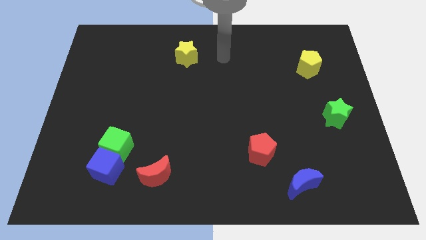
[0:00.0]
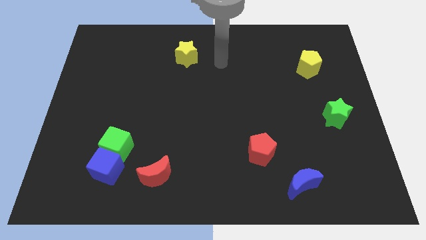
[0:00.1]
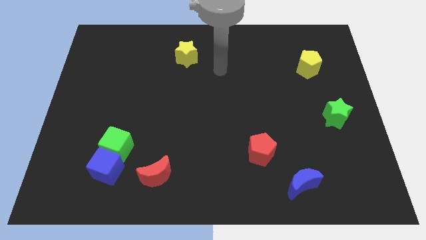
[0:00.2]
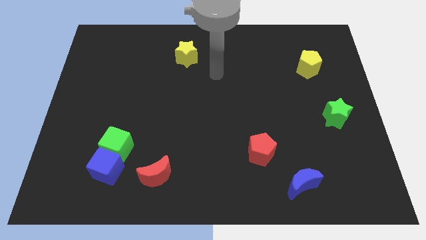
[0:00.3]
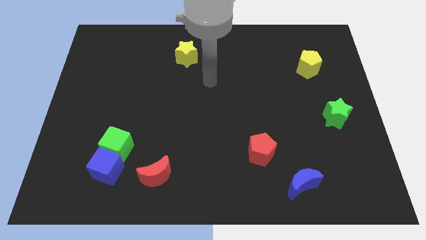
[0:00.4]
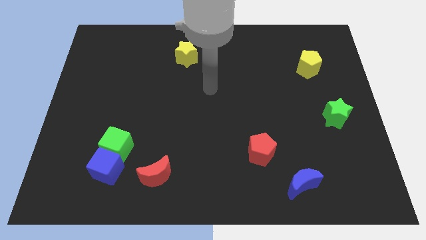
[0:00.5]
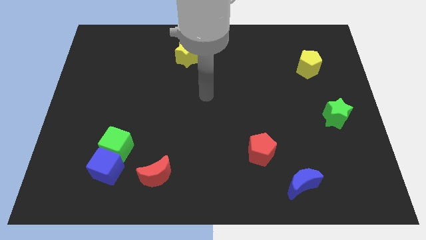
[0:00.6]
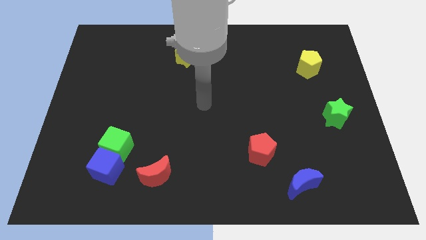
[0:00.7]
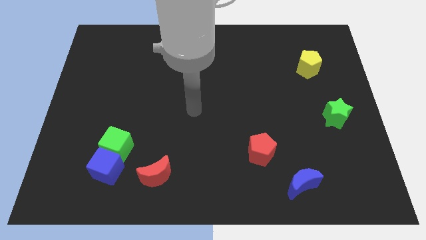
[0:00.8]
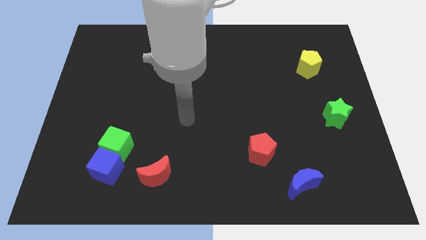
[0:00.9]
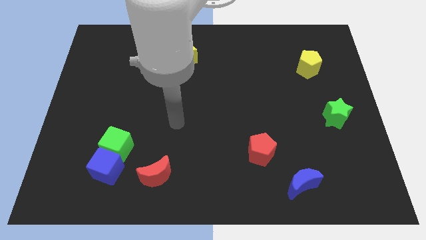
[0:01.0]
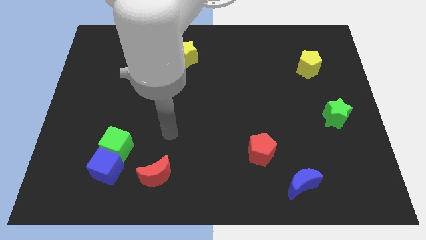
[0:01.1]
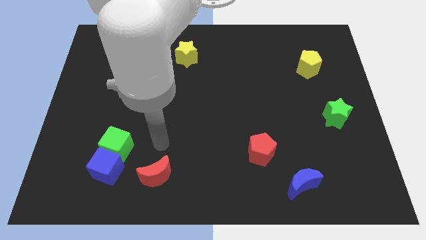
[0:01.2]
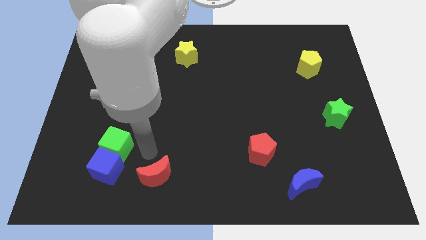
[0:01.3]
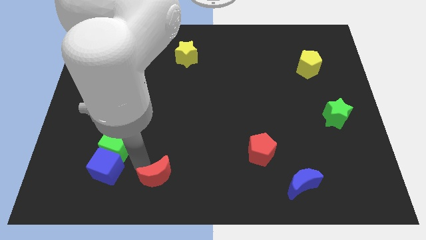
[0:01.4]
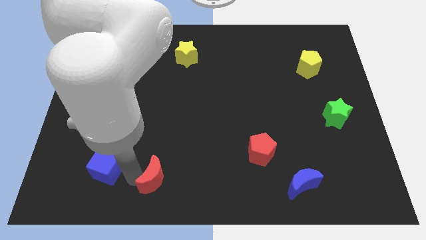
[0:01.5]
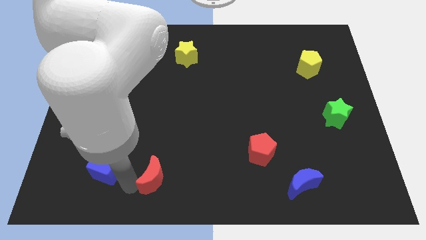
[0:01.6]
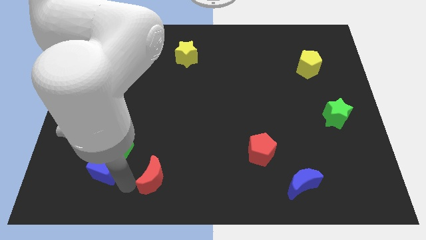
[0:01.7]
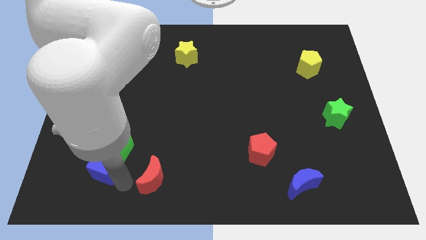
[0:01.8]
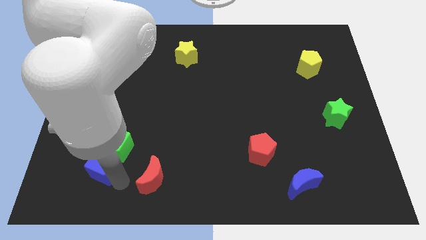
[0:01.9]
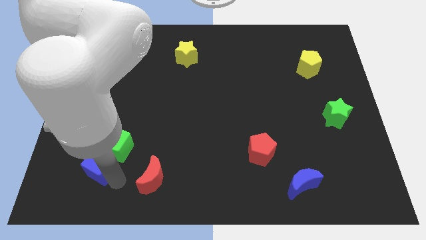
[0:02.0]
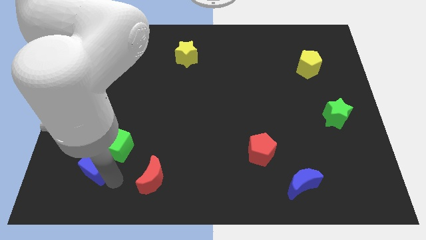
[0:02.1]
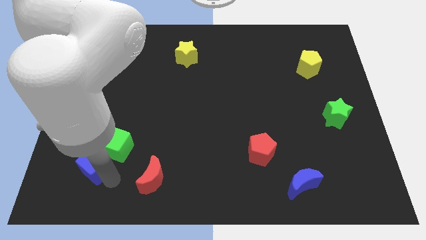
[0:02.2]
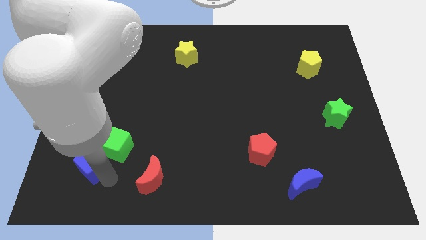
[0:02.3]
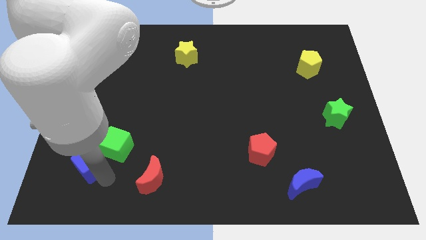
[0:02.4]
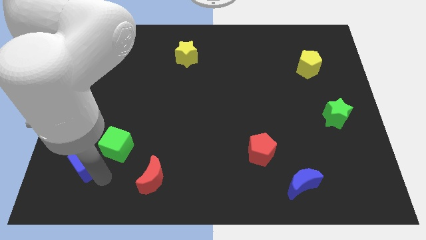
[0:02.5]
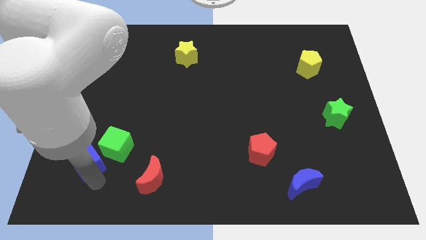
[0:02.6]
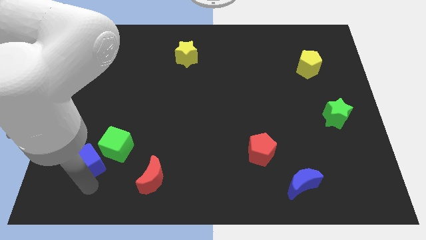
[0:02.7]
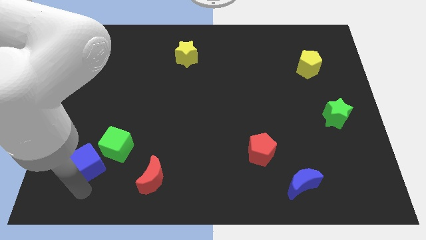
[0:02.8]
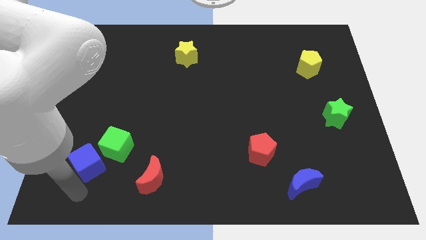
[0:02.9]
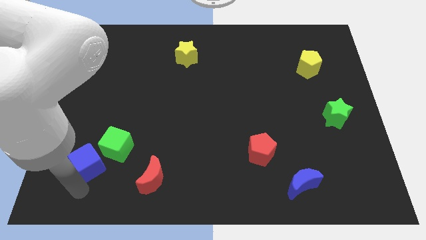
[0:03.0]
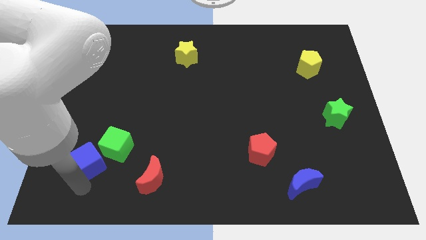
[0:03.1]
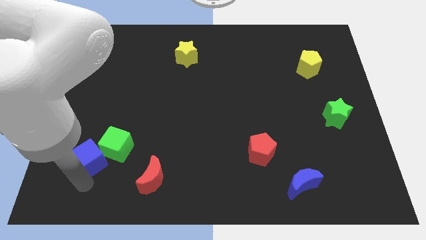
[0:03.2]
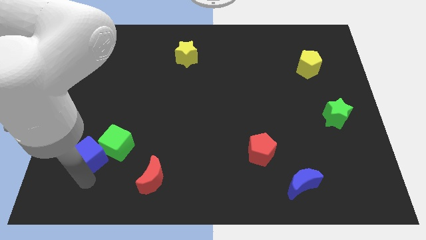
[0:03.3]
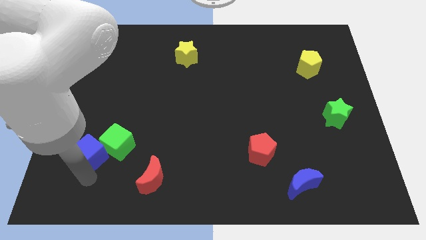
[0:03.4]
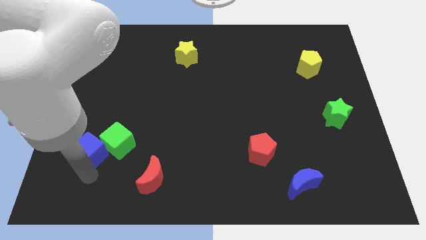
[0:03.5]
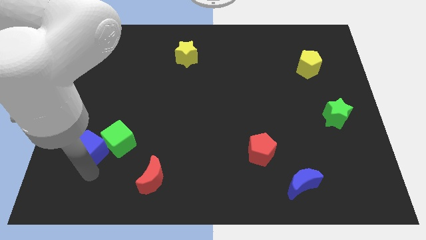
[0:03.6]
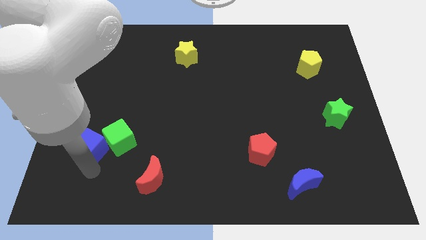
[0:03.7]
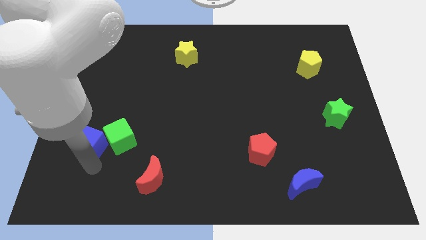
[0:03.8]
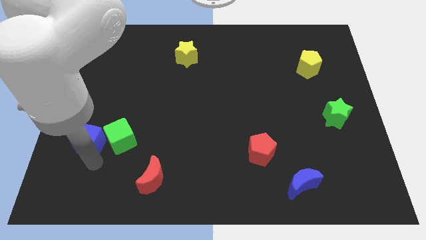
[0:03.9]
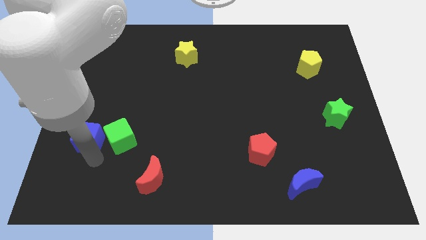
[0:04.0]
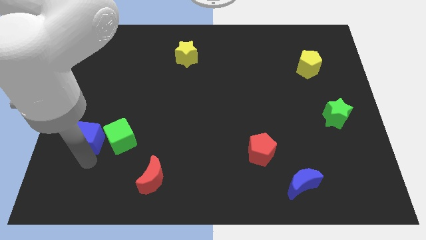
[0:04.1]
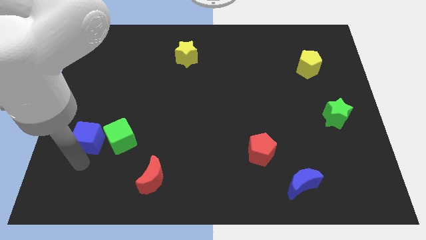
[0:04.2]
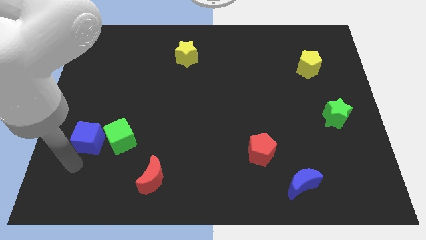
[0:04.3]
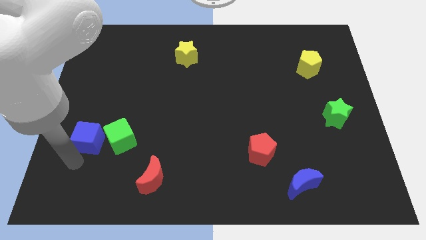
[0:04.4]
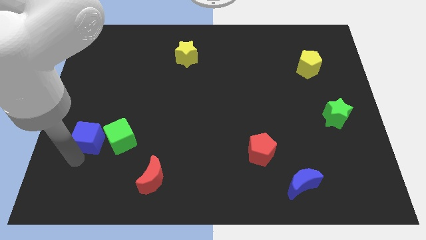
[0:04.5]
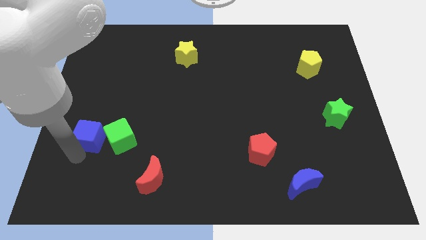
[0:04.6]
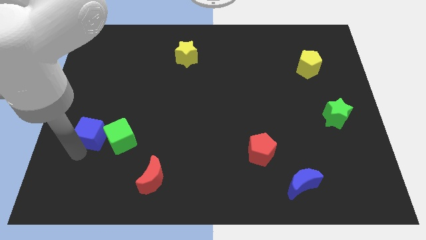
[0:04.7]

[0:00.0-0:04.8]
push the blue cube up a little

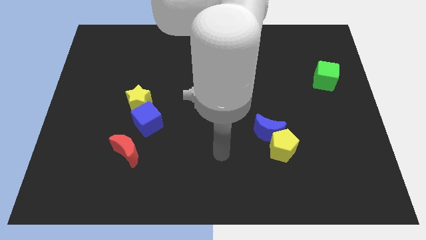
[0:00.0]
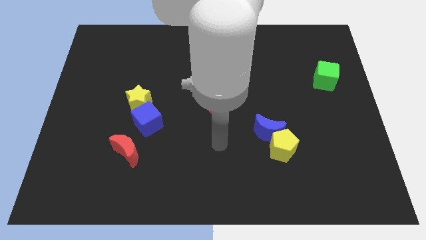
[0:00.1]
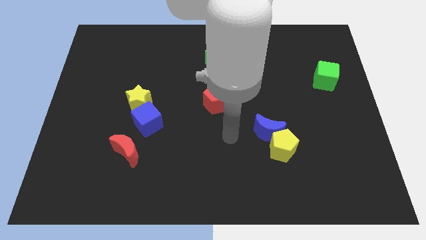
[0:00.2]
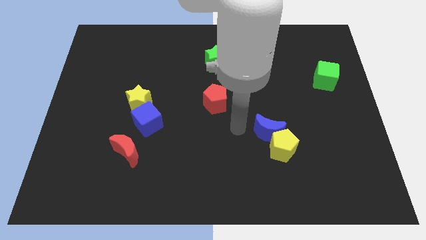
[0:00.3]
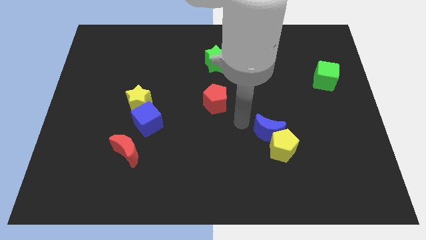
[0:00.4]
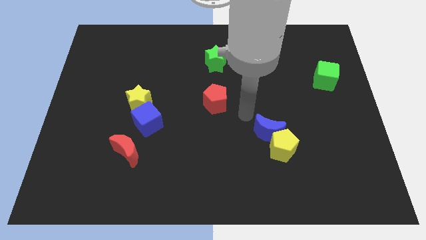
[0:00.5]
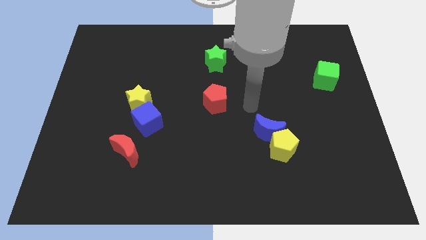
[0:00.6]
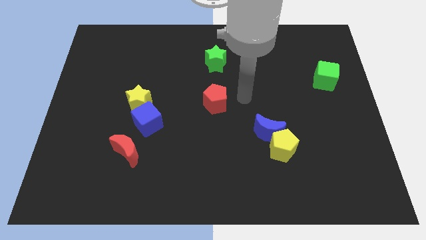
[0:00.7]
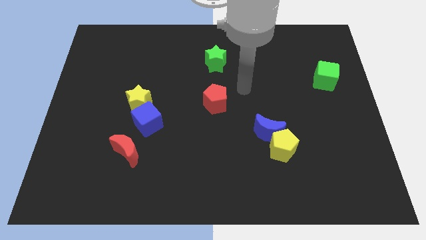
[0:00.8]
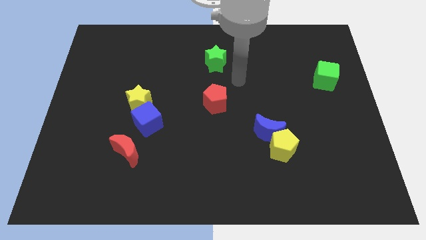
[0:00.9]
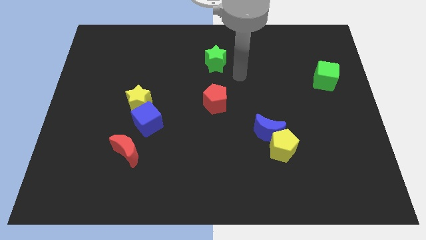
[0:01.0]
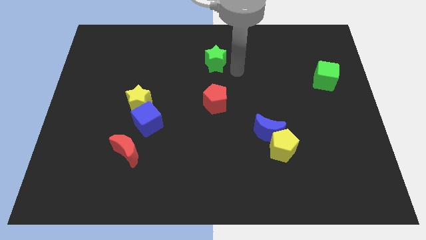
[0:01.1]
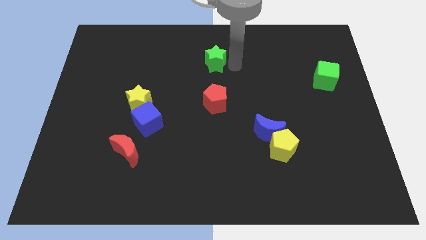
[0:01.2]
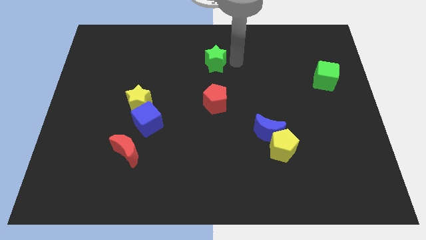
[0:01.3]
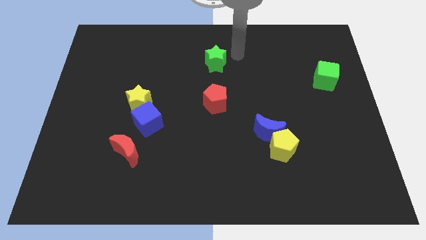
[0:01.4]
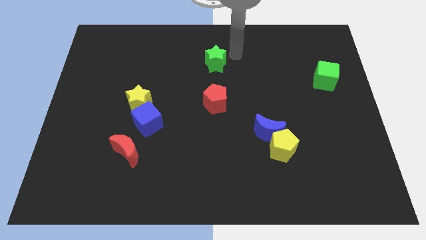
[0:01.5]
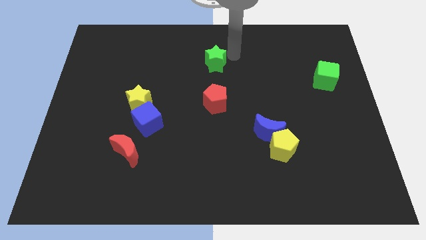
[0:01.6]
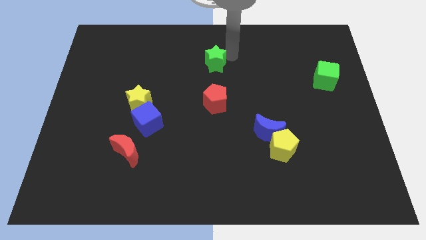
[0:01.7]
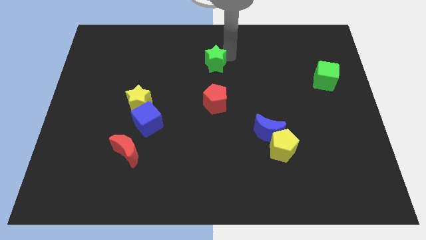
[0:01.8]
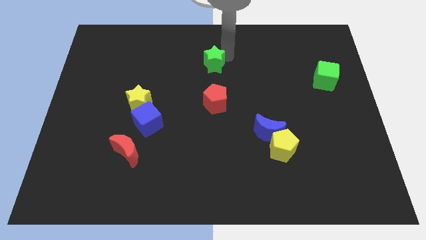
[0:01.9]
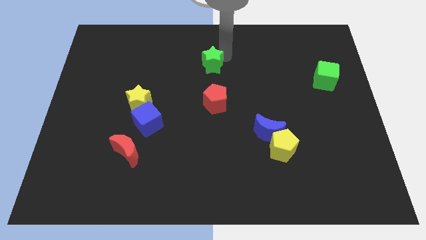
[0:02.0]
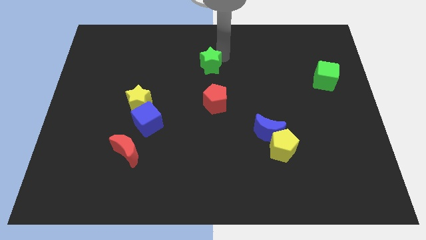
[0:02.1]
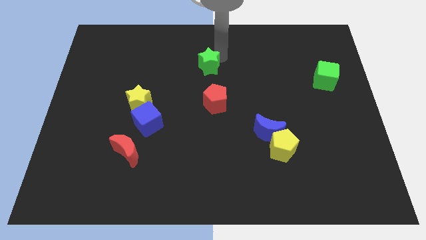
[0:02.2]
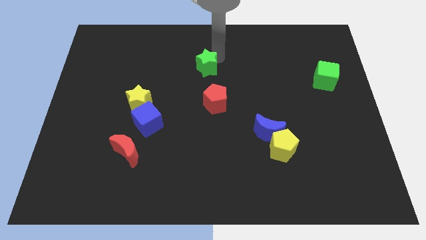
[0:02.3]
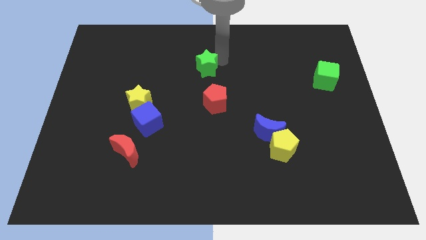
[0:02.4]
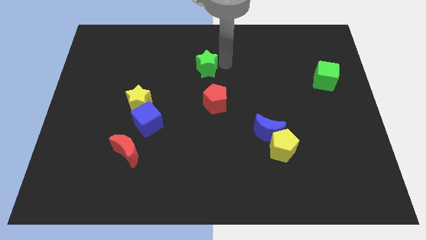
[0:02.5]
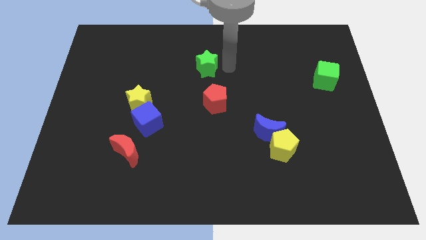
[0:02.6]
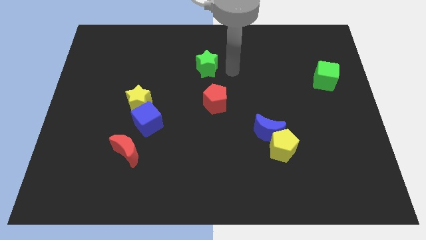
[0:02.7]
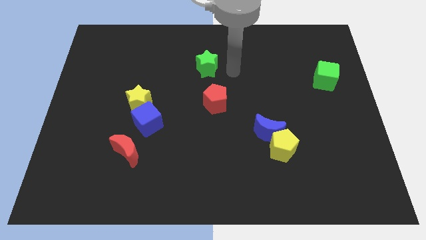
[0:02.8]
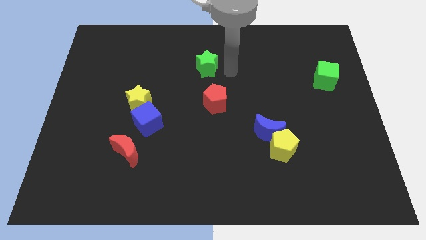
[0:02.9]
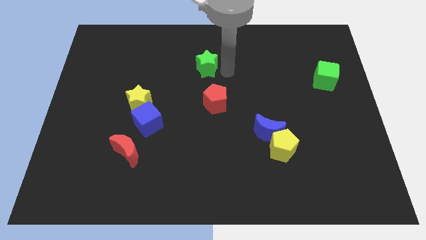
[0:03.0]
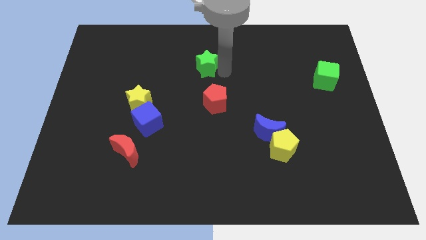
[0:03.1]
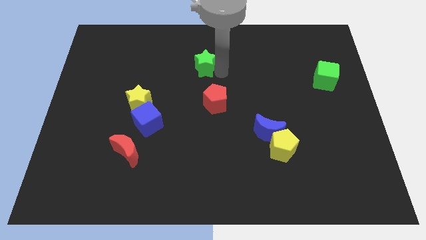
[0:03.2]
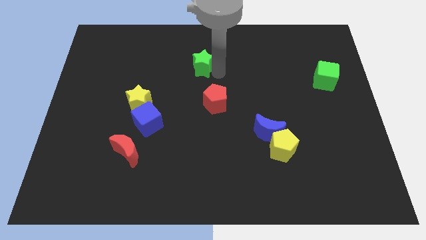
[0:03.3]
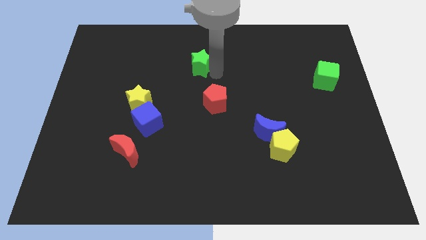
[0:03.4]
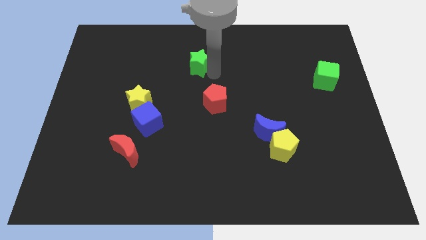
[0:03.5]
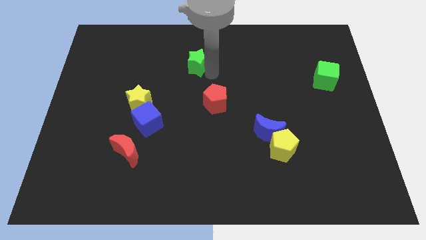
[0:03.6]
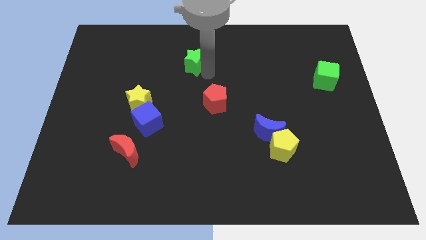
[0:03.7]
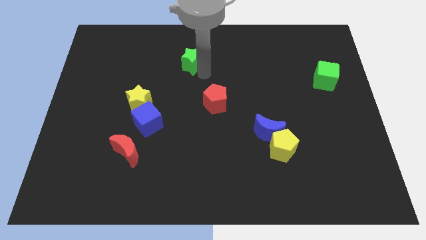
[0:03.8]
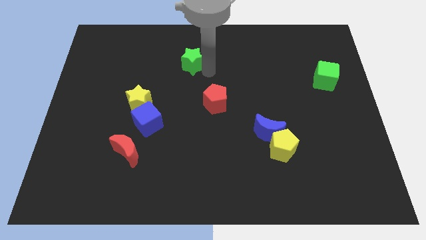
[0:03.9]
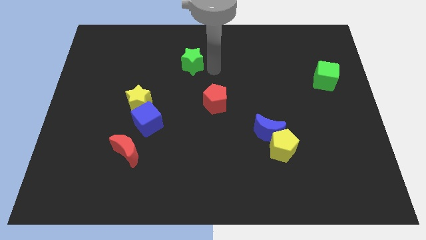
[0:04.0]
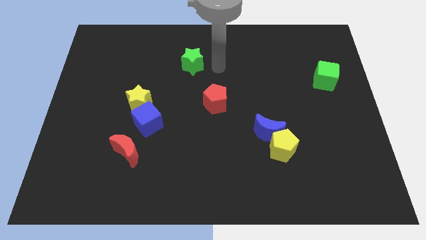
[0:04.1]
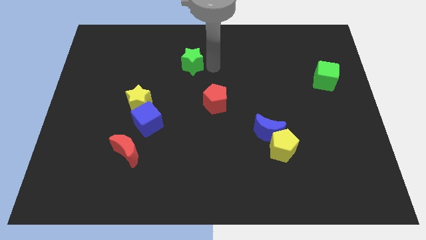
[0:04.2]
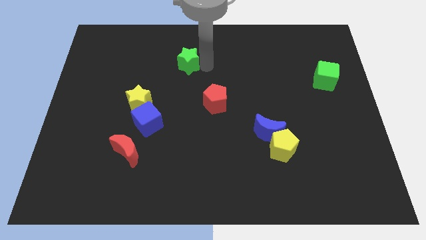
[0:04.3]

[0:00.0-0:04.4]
move the green star a little to the left
